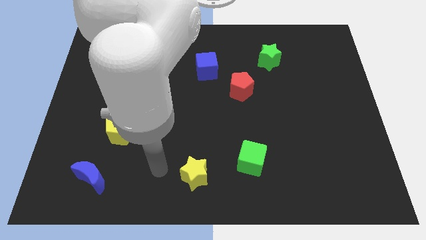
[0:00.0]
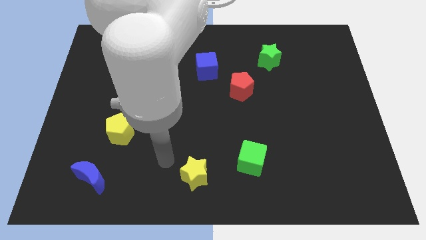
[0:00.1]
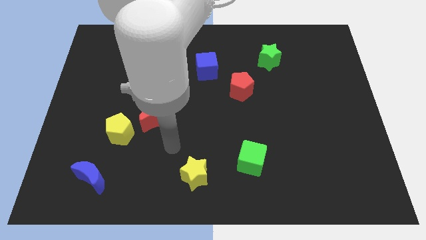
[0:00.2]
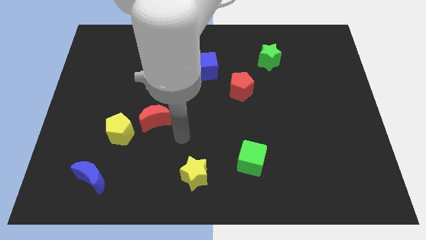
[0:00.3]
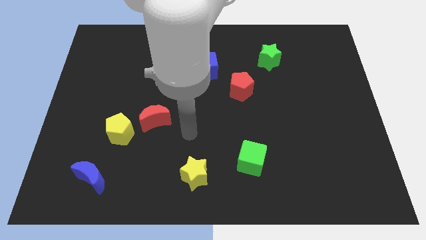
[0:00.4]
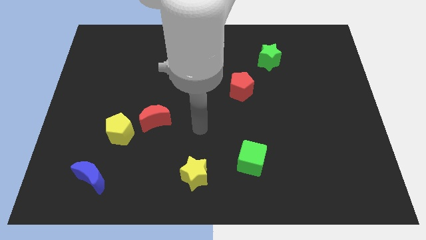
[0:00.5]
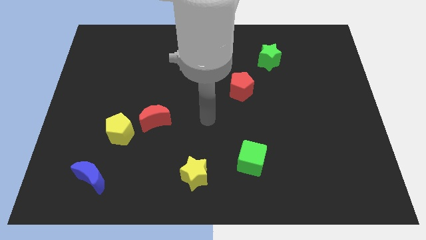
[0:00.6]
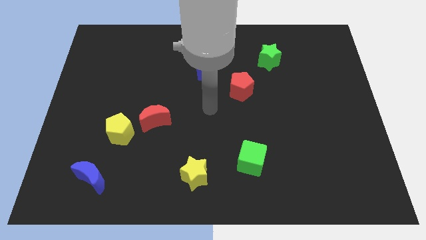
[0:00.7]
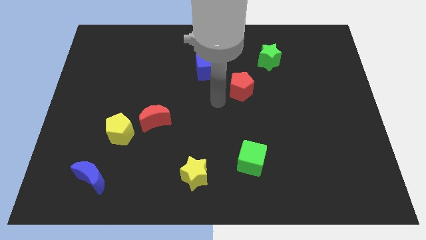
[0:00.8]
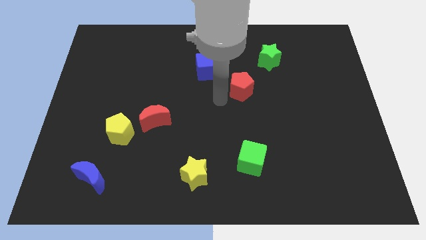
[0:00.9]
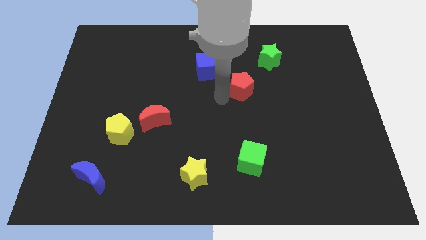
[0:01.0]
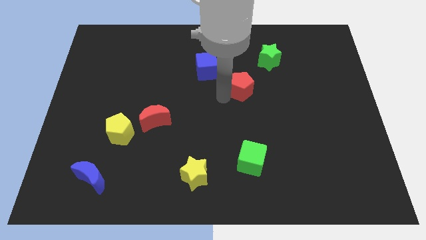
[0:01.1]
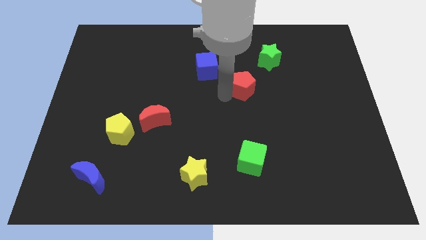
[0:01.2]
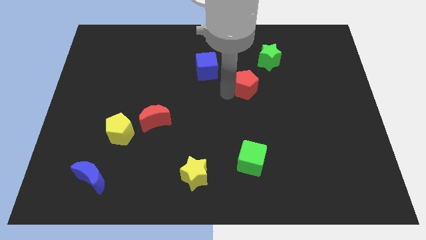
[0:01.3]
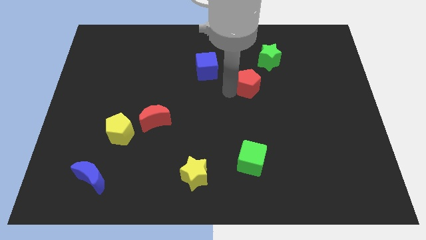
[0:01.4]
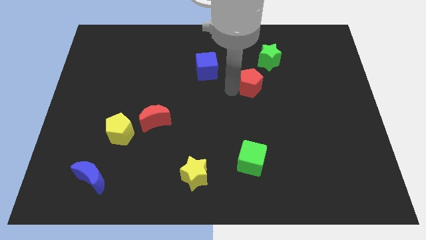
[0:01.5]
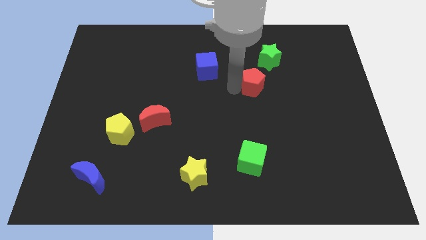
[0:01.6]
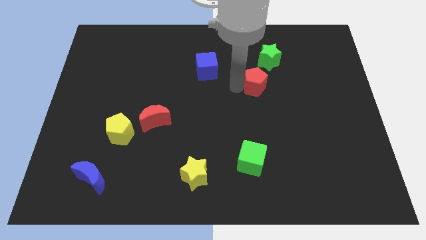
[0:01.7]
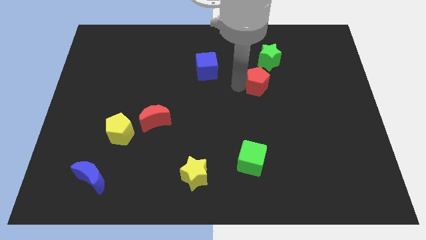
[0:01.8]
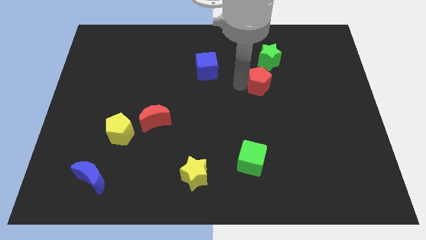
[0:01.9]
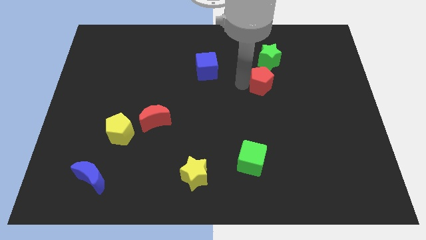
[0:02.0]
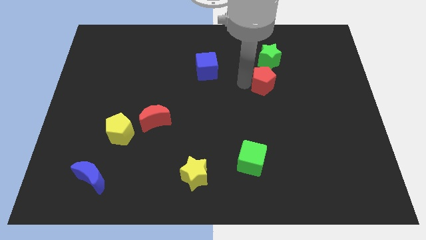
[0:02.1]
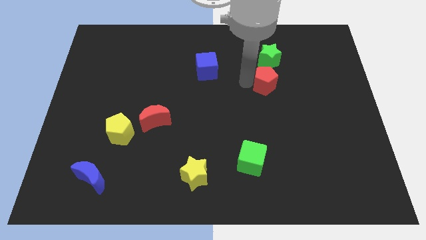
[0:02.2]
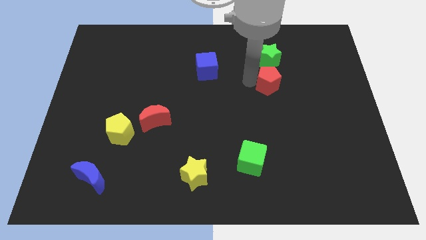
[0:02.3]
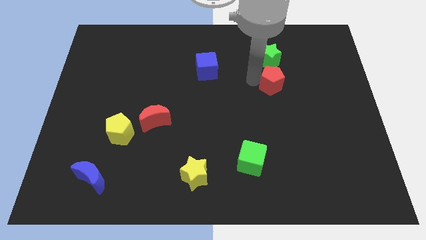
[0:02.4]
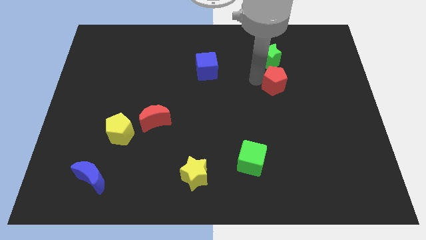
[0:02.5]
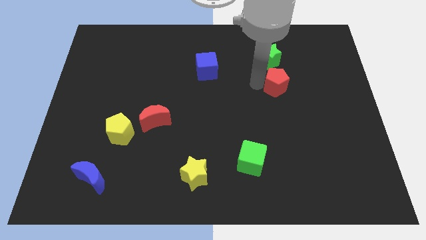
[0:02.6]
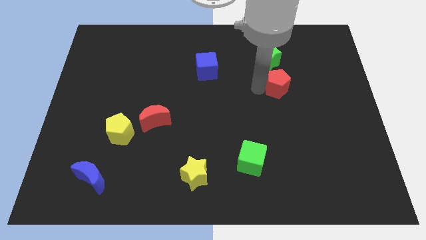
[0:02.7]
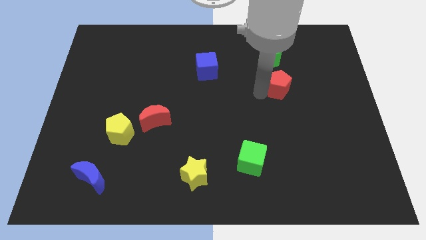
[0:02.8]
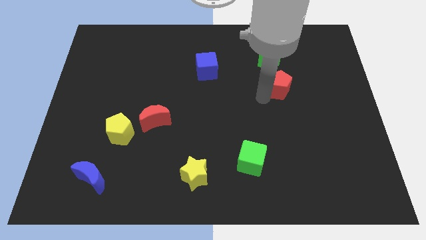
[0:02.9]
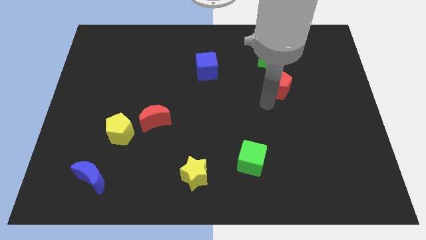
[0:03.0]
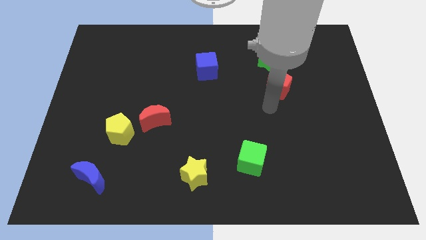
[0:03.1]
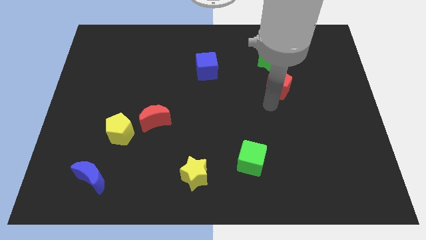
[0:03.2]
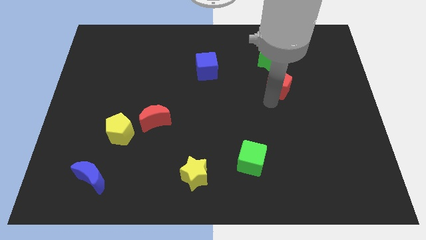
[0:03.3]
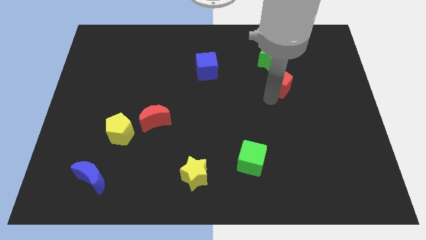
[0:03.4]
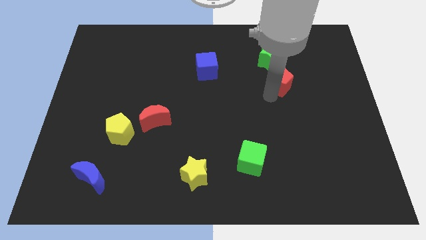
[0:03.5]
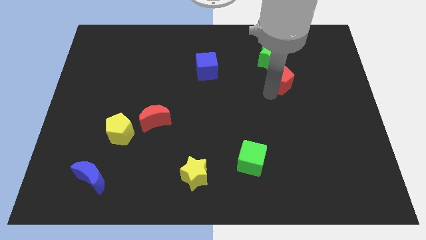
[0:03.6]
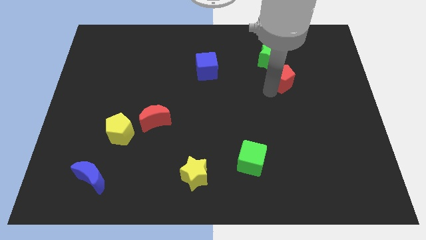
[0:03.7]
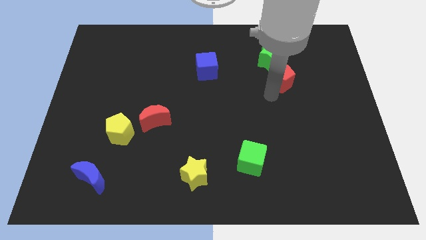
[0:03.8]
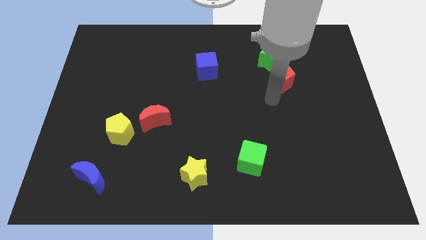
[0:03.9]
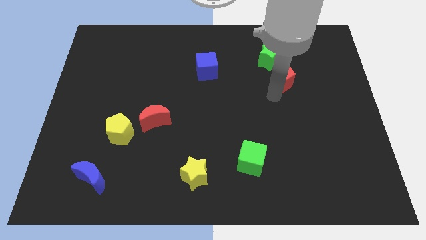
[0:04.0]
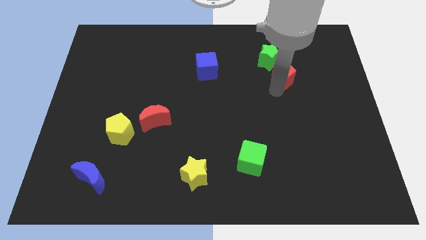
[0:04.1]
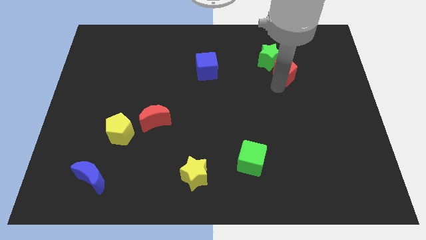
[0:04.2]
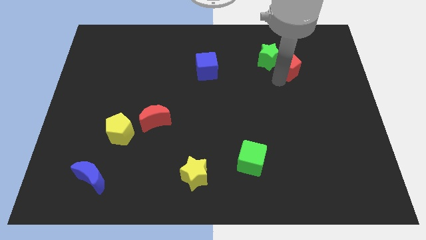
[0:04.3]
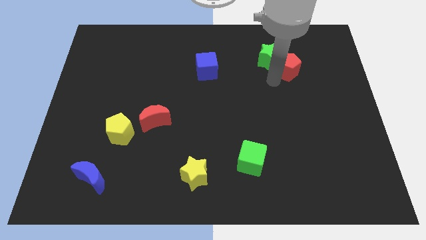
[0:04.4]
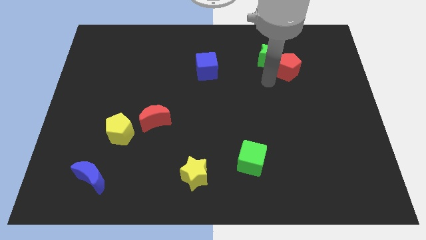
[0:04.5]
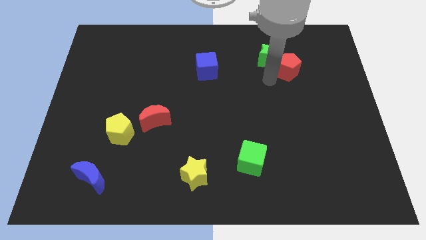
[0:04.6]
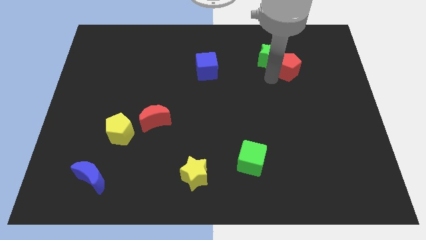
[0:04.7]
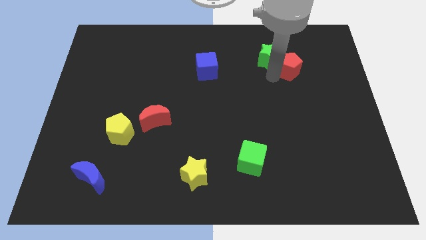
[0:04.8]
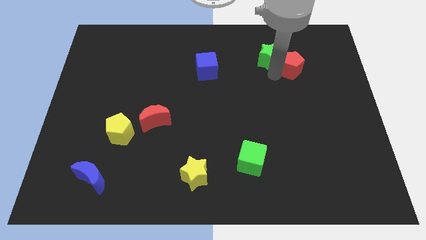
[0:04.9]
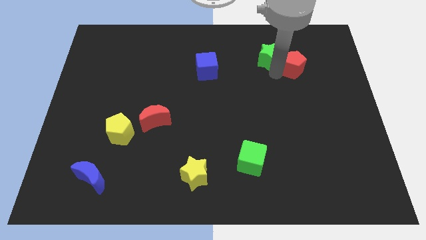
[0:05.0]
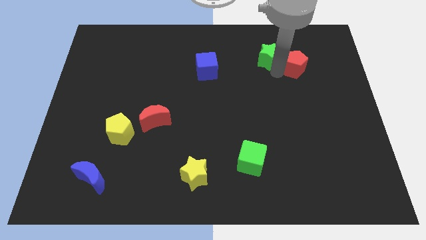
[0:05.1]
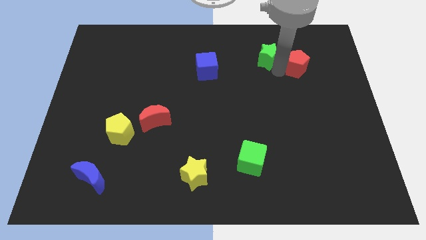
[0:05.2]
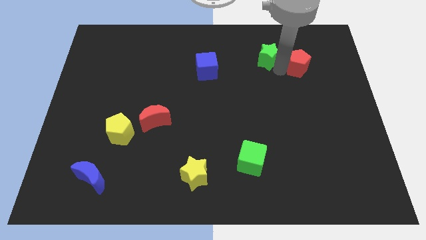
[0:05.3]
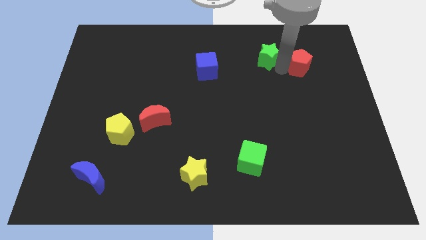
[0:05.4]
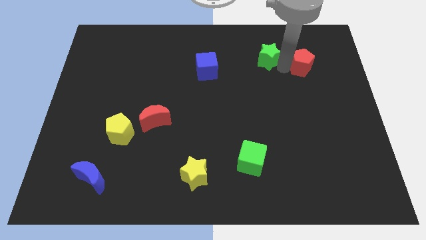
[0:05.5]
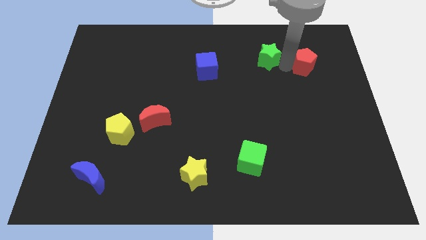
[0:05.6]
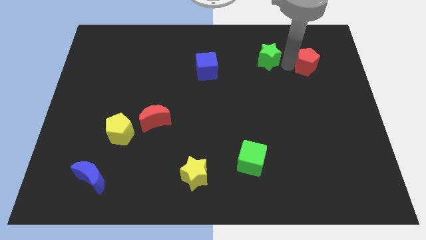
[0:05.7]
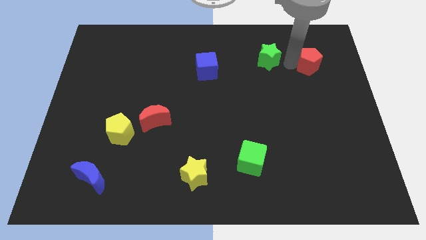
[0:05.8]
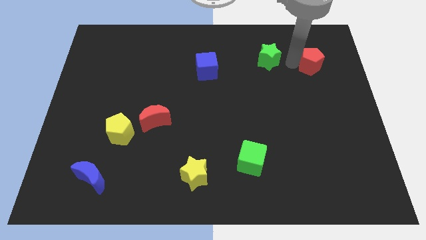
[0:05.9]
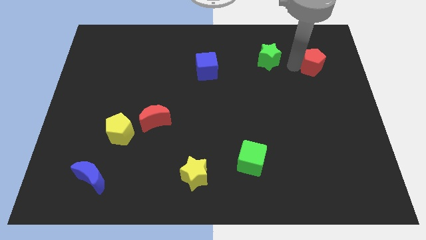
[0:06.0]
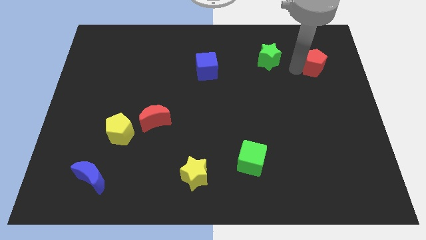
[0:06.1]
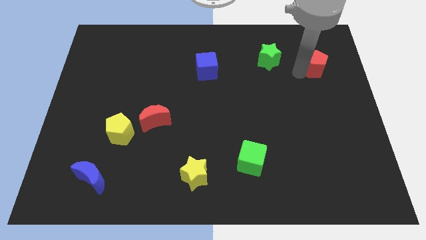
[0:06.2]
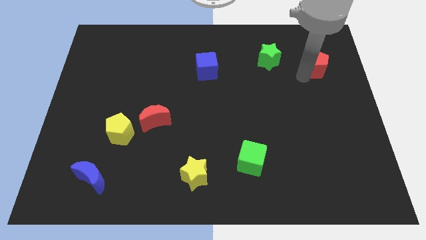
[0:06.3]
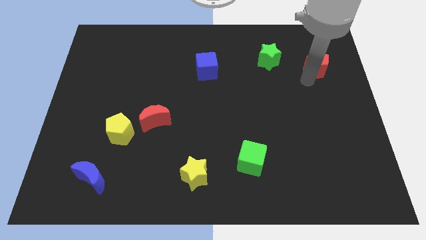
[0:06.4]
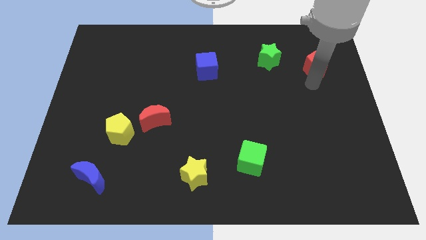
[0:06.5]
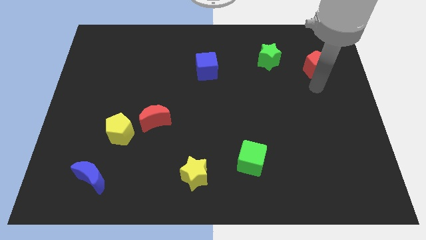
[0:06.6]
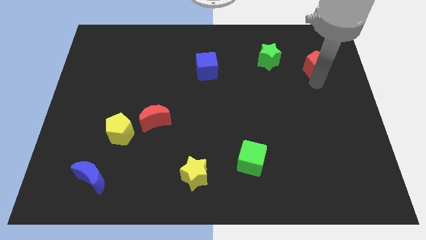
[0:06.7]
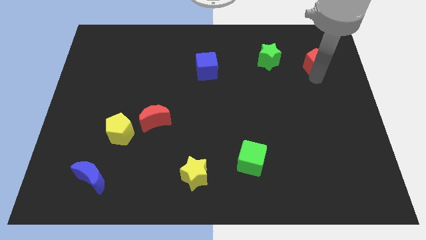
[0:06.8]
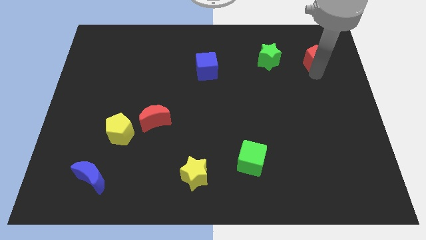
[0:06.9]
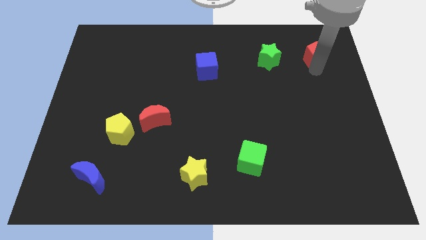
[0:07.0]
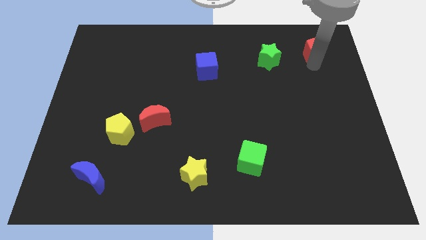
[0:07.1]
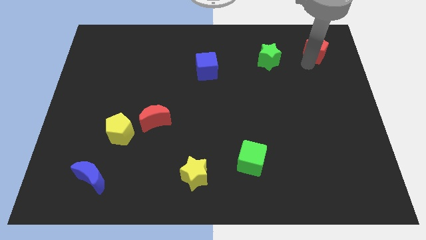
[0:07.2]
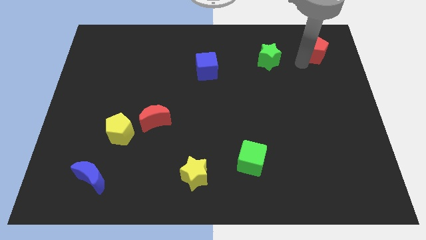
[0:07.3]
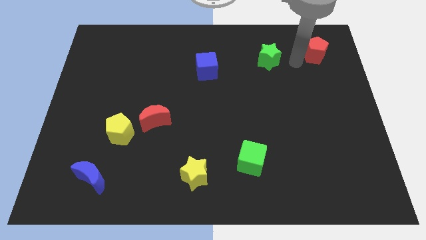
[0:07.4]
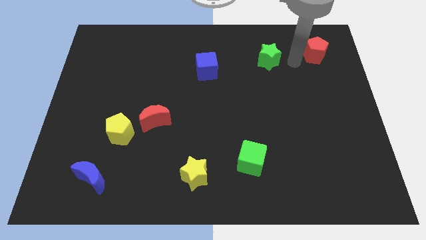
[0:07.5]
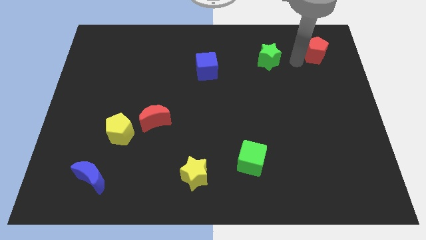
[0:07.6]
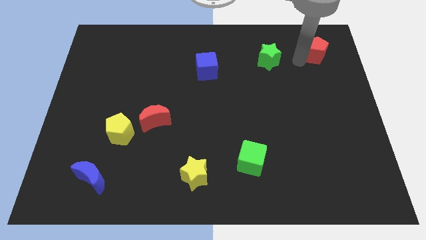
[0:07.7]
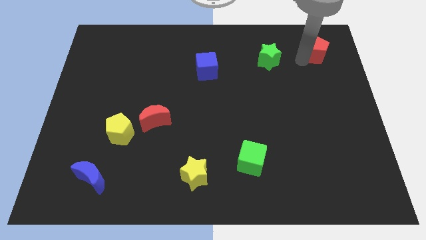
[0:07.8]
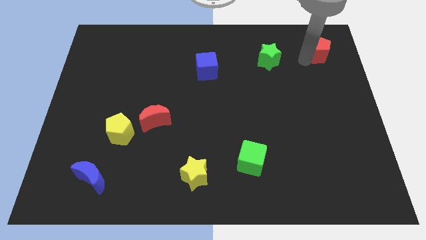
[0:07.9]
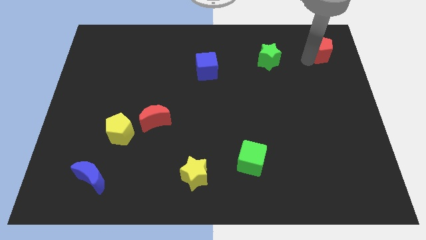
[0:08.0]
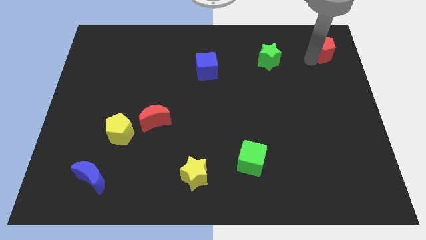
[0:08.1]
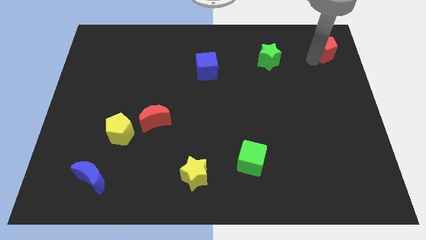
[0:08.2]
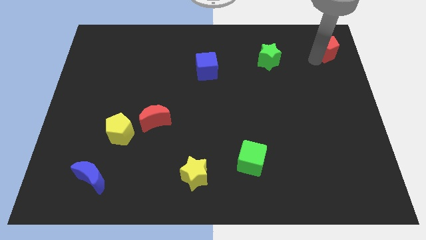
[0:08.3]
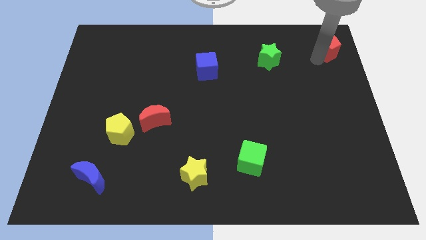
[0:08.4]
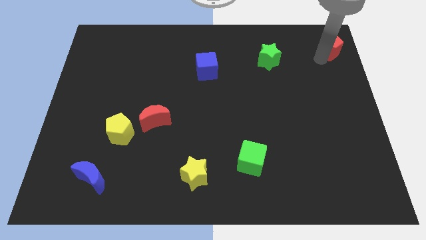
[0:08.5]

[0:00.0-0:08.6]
put the red pentagon to the top right corner
